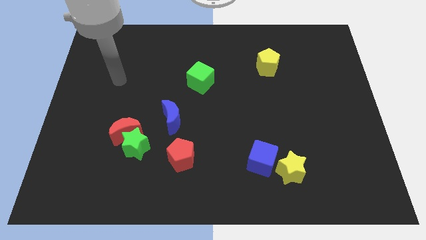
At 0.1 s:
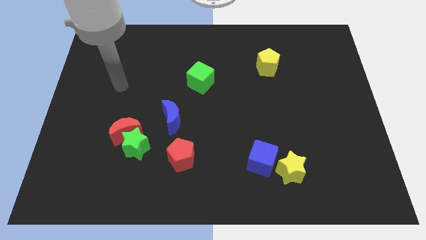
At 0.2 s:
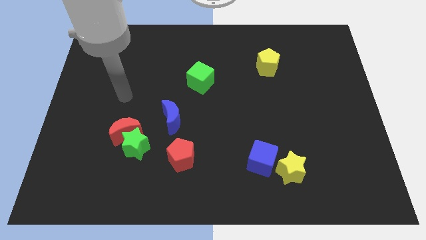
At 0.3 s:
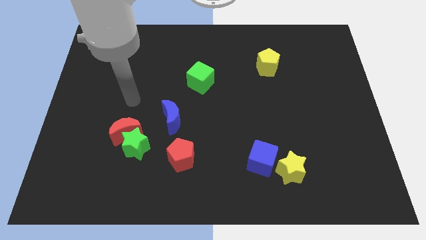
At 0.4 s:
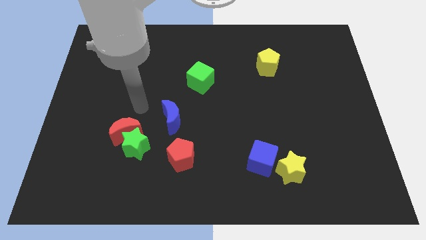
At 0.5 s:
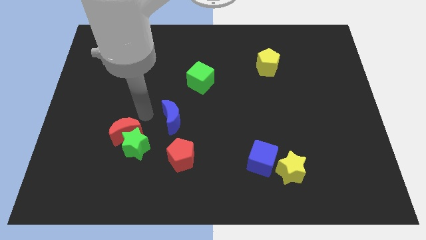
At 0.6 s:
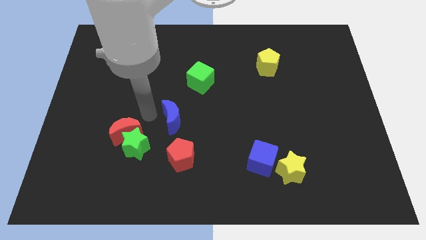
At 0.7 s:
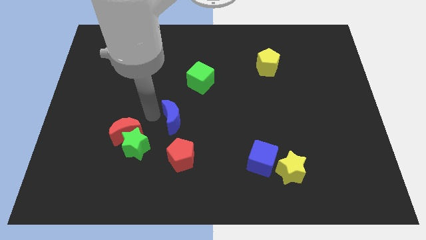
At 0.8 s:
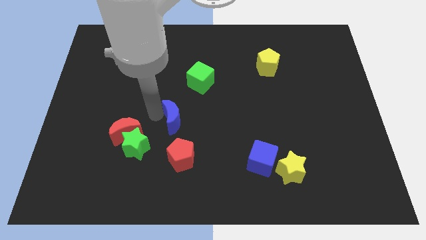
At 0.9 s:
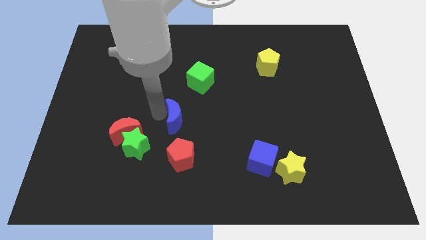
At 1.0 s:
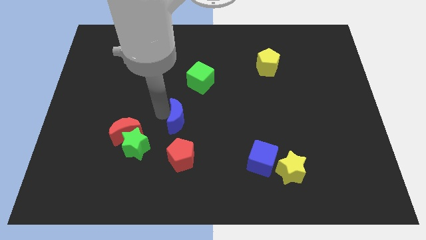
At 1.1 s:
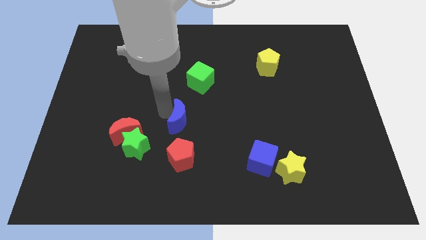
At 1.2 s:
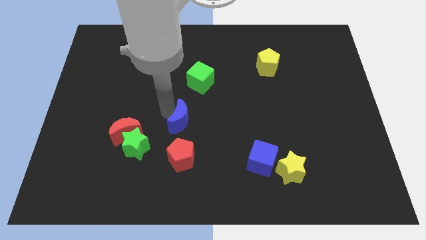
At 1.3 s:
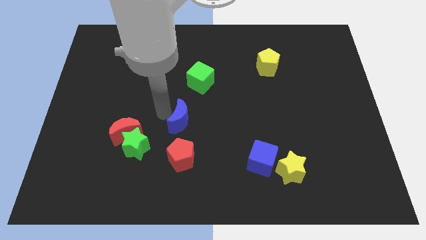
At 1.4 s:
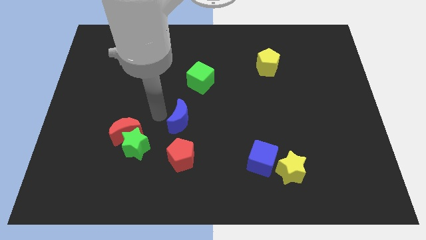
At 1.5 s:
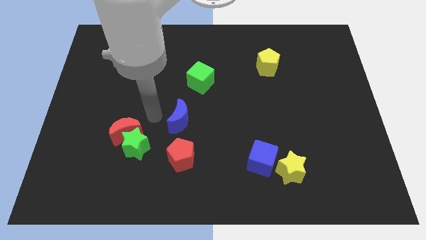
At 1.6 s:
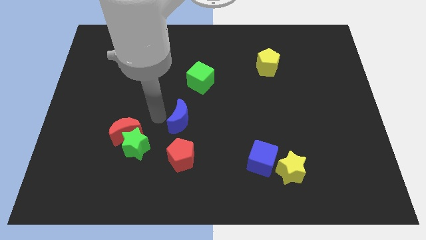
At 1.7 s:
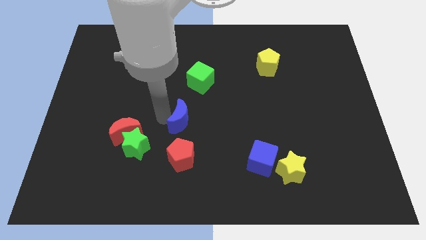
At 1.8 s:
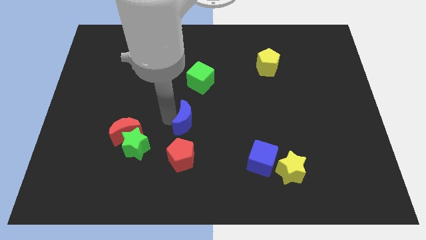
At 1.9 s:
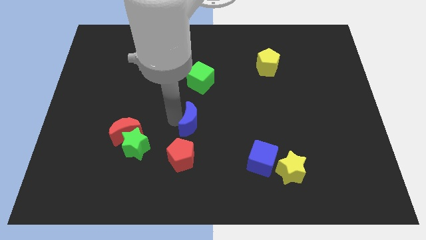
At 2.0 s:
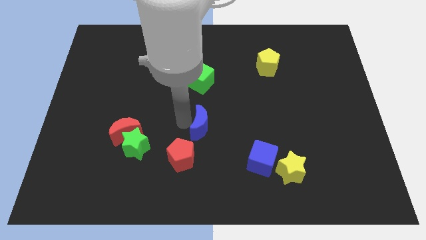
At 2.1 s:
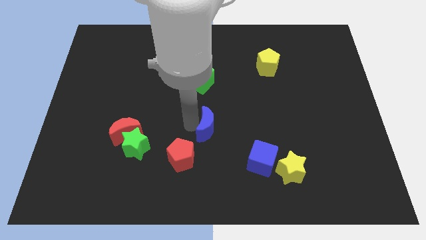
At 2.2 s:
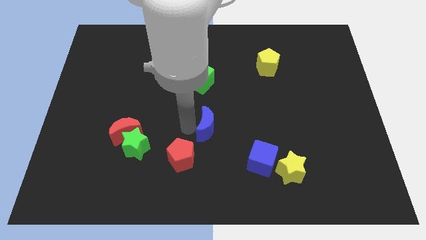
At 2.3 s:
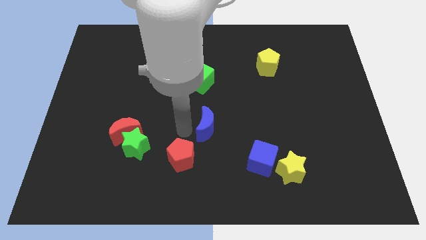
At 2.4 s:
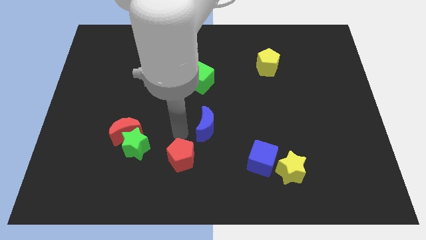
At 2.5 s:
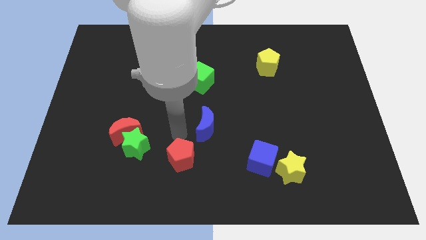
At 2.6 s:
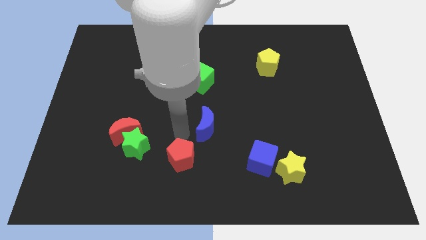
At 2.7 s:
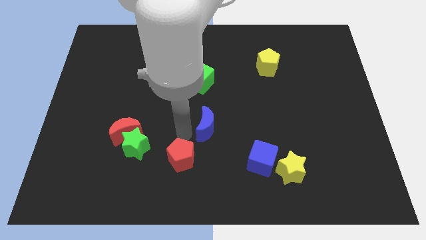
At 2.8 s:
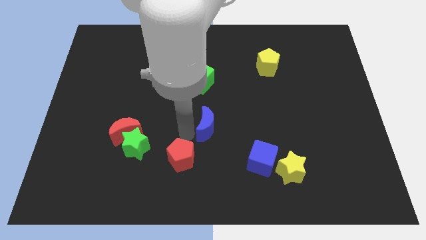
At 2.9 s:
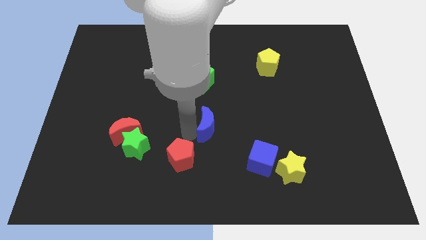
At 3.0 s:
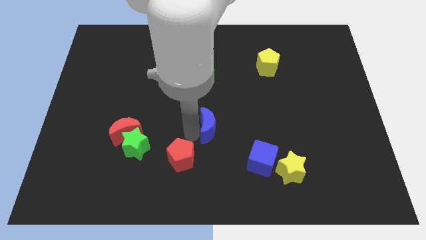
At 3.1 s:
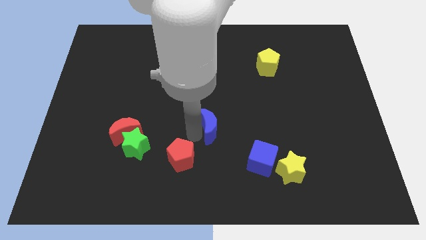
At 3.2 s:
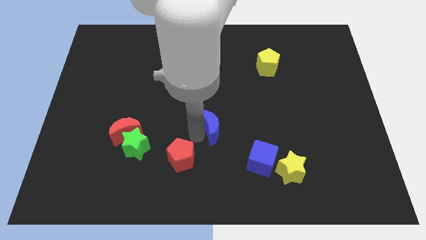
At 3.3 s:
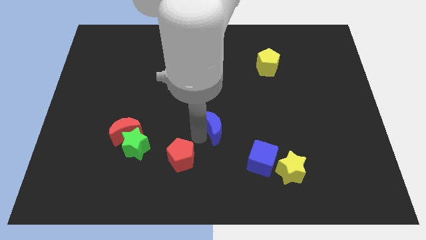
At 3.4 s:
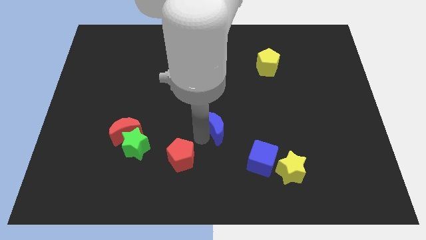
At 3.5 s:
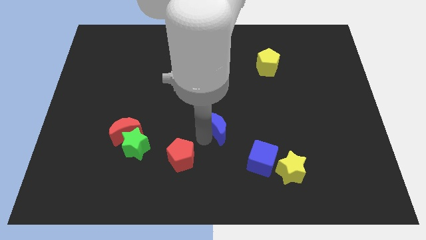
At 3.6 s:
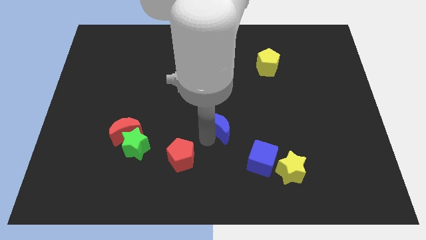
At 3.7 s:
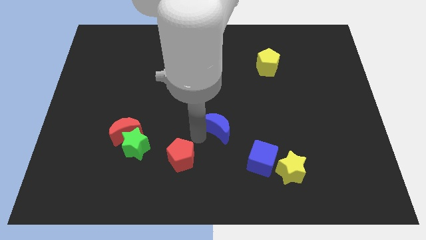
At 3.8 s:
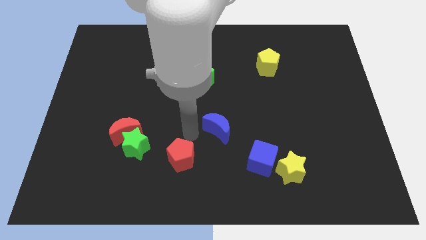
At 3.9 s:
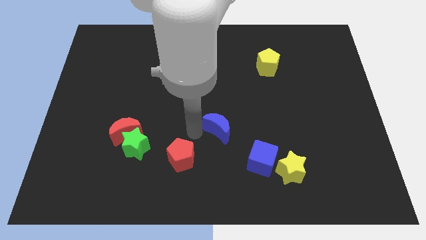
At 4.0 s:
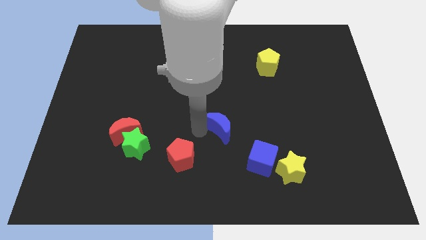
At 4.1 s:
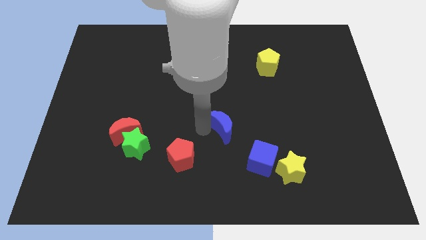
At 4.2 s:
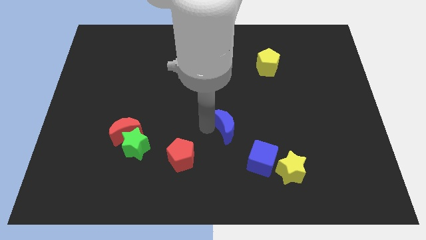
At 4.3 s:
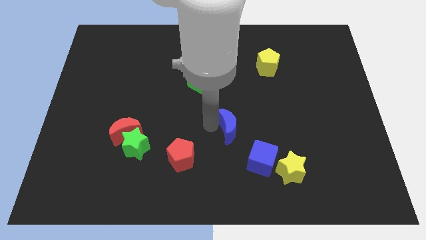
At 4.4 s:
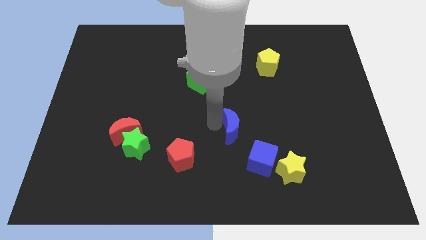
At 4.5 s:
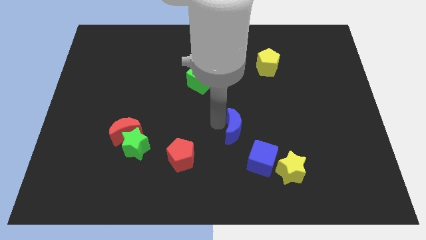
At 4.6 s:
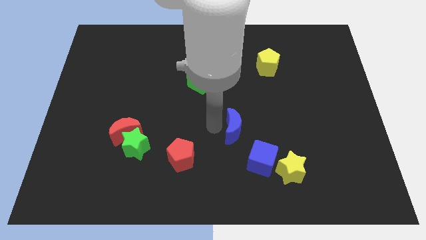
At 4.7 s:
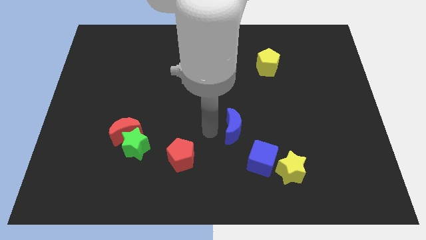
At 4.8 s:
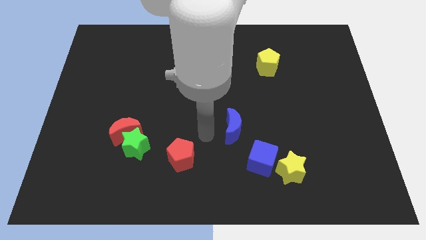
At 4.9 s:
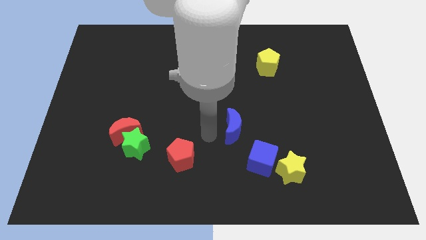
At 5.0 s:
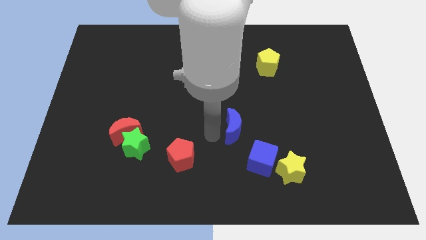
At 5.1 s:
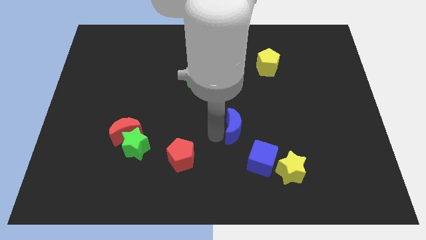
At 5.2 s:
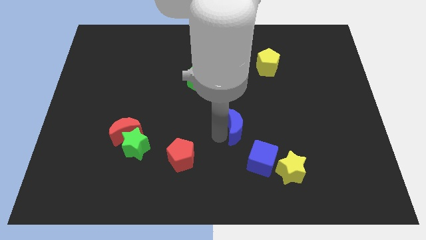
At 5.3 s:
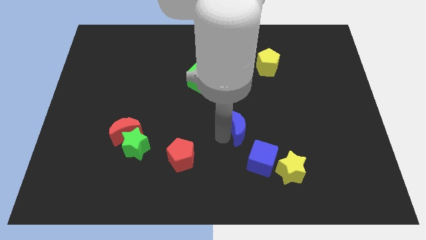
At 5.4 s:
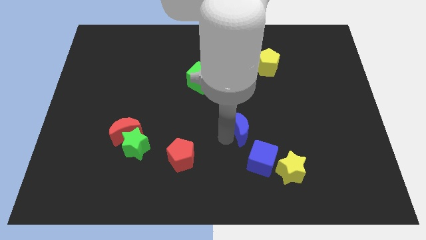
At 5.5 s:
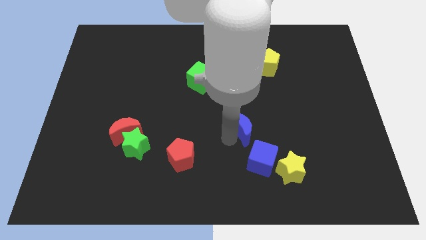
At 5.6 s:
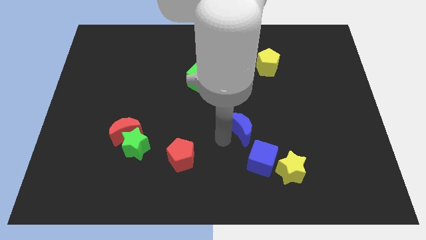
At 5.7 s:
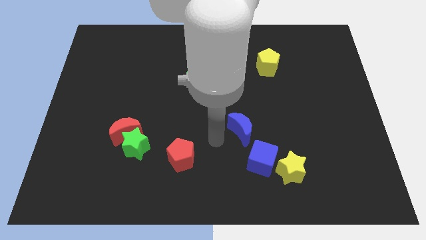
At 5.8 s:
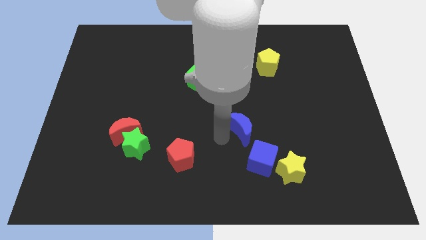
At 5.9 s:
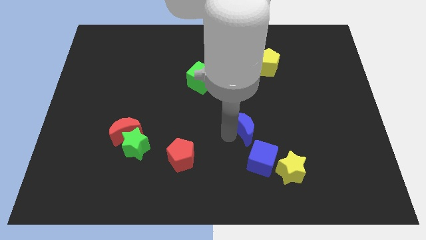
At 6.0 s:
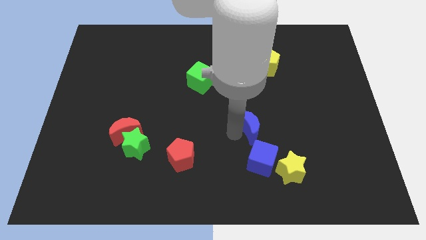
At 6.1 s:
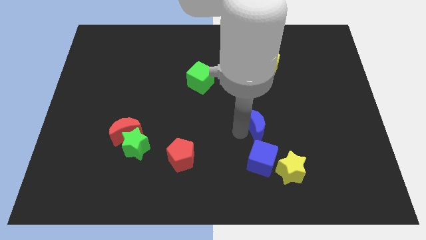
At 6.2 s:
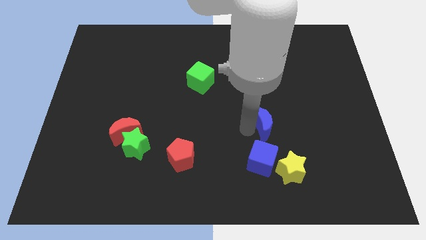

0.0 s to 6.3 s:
push the blue moon to the right

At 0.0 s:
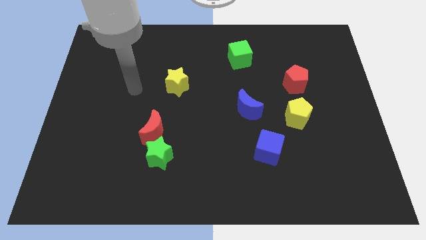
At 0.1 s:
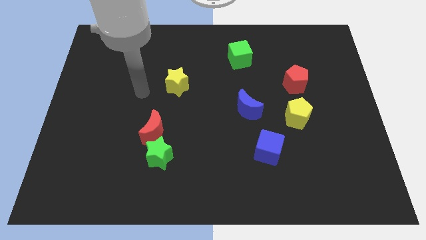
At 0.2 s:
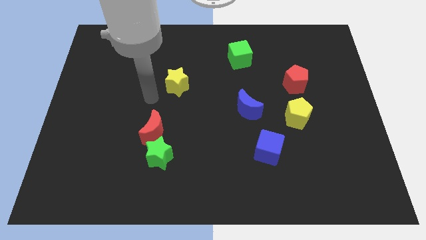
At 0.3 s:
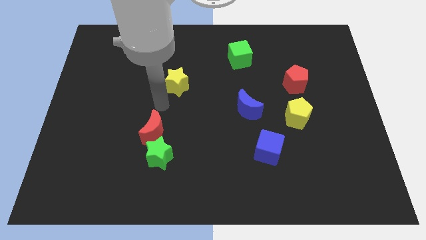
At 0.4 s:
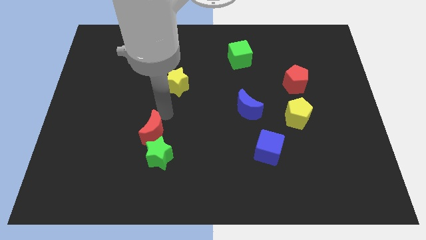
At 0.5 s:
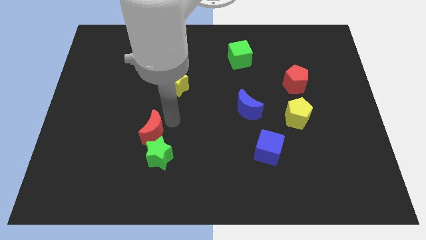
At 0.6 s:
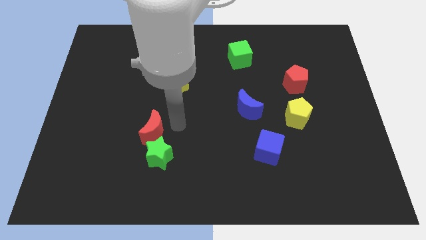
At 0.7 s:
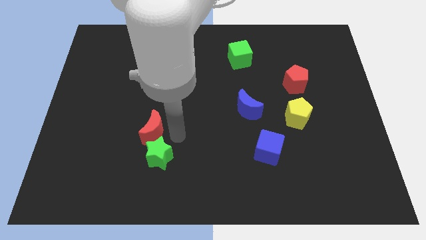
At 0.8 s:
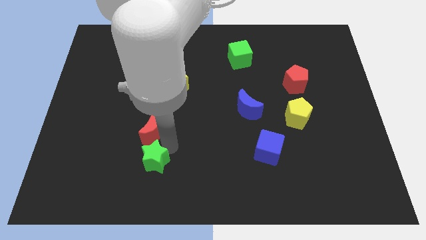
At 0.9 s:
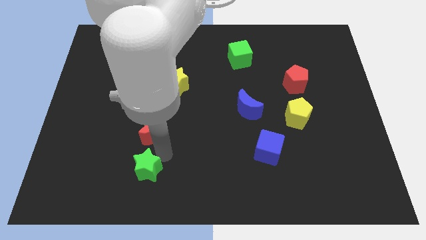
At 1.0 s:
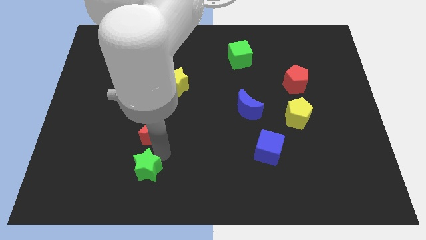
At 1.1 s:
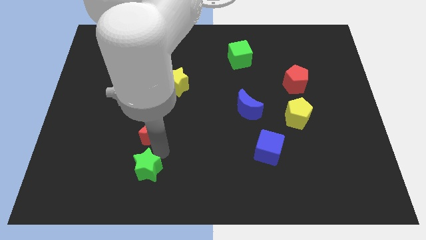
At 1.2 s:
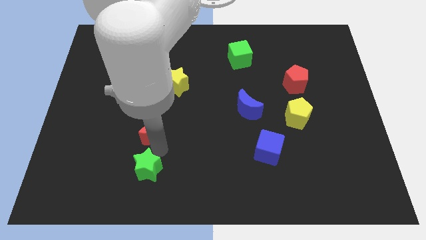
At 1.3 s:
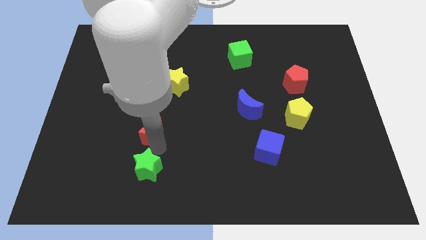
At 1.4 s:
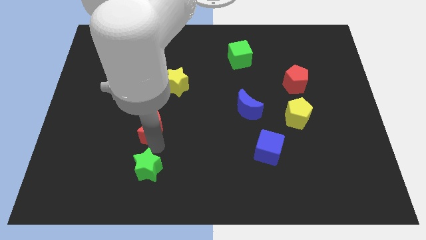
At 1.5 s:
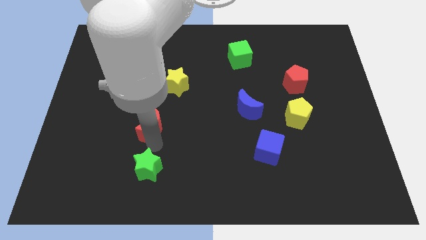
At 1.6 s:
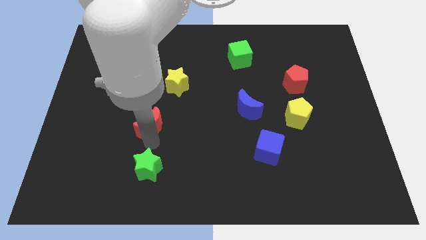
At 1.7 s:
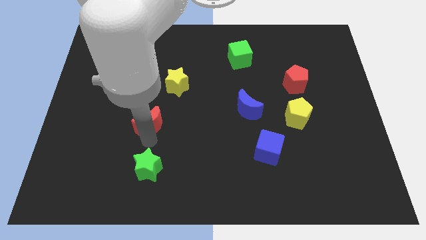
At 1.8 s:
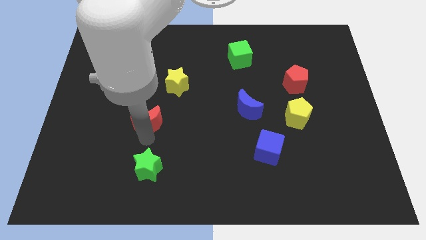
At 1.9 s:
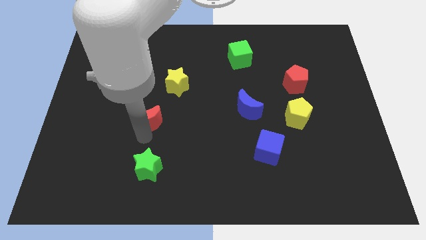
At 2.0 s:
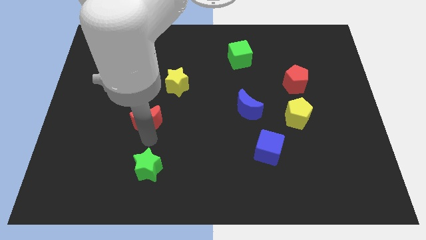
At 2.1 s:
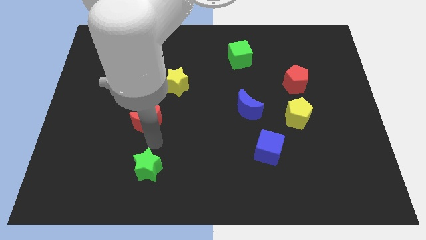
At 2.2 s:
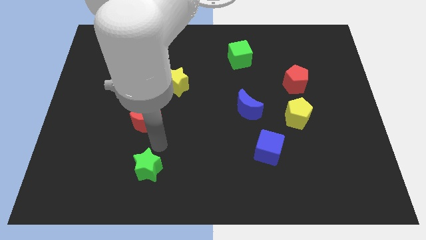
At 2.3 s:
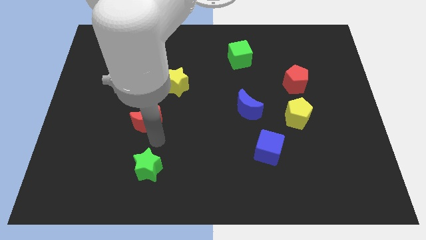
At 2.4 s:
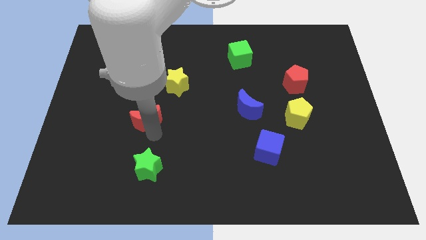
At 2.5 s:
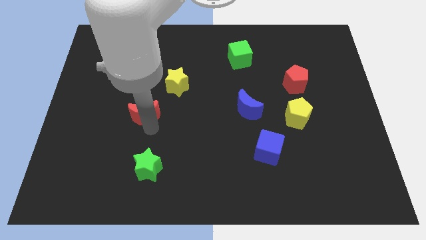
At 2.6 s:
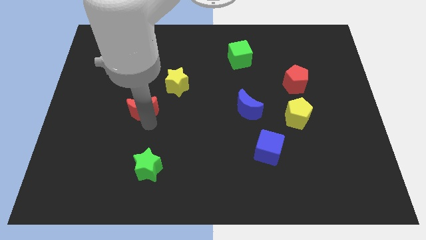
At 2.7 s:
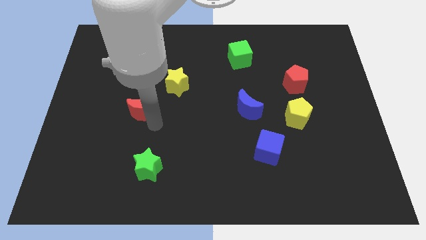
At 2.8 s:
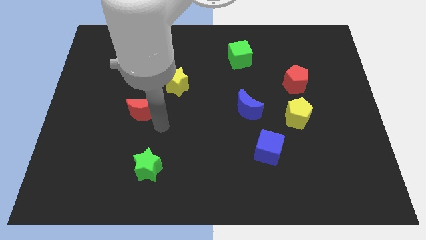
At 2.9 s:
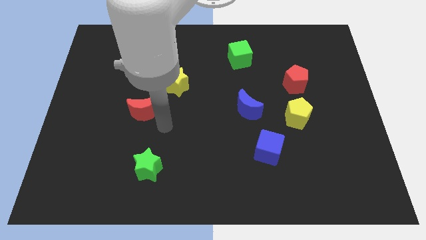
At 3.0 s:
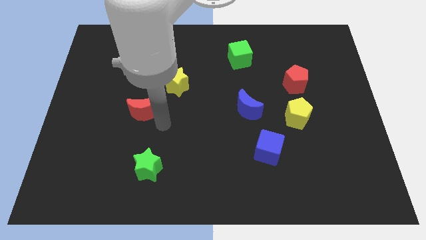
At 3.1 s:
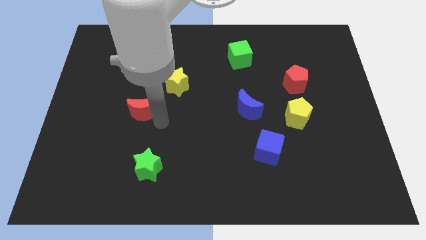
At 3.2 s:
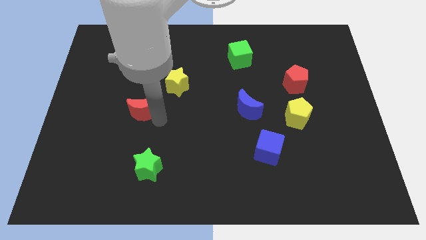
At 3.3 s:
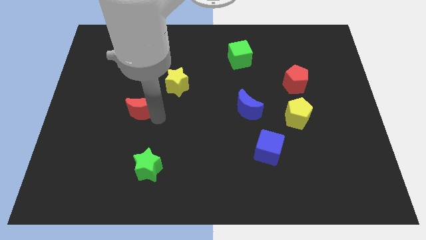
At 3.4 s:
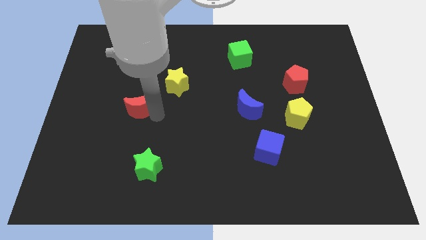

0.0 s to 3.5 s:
move the red moon diagonally upwards and left slightly
